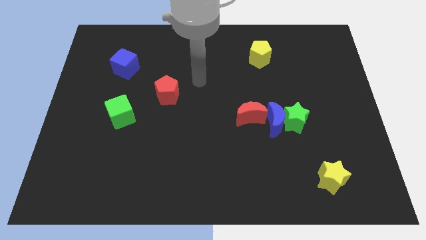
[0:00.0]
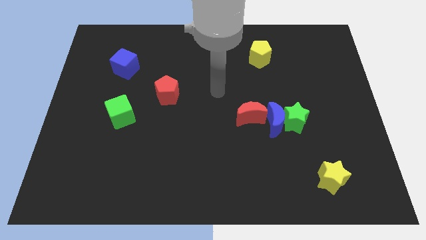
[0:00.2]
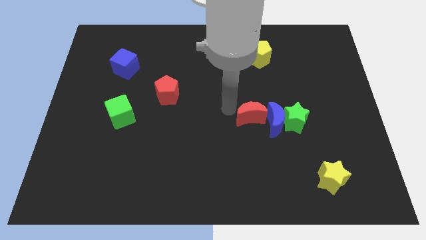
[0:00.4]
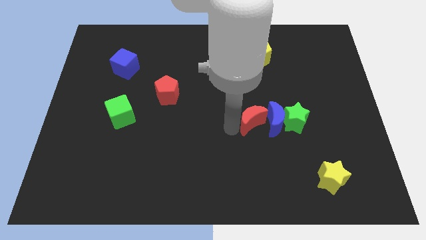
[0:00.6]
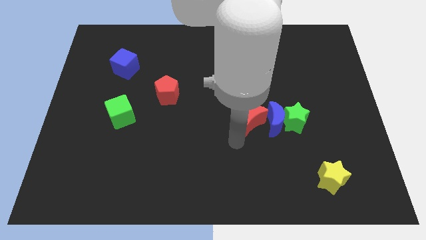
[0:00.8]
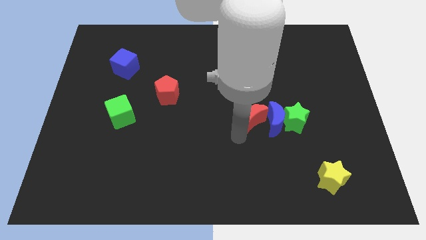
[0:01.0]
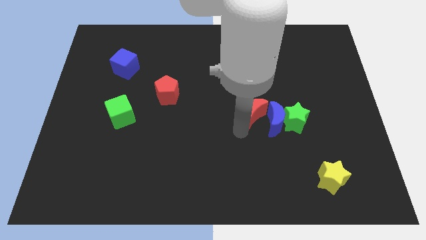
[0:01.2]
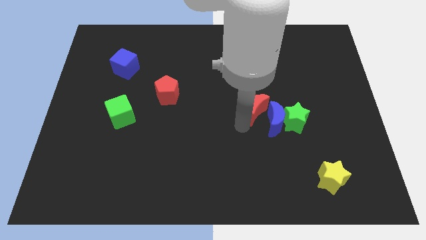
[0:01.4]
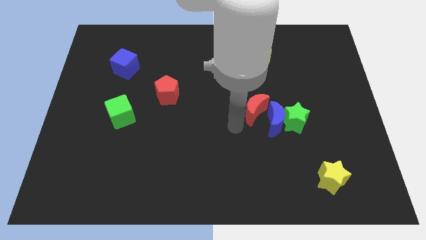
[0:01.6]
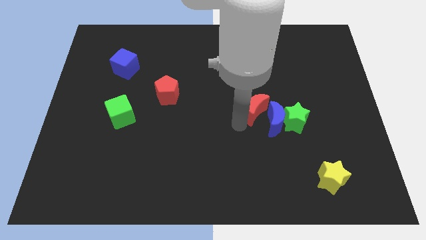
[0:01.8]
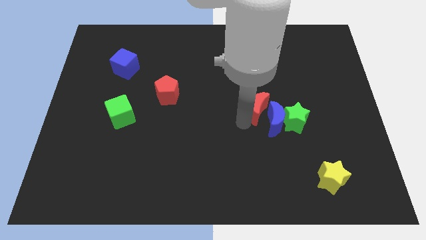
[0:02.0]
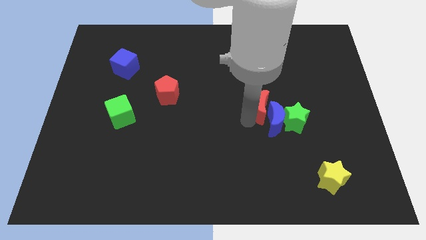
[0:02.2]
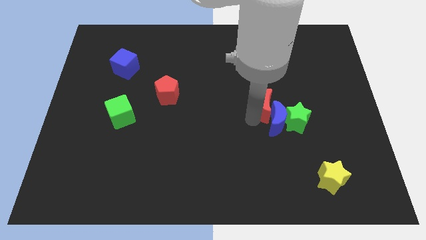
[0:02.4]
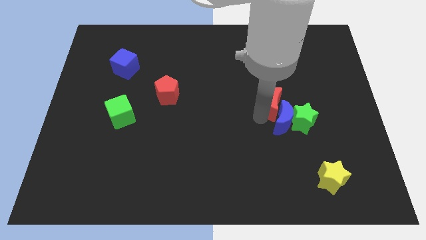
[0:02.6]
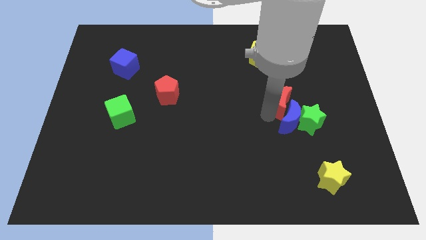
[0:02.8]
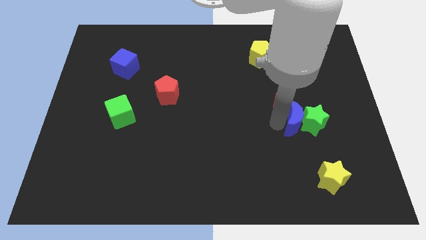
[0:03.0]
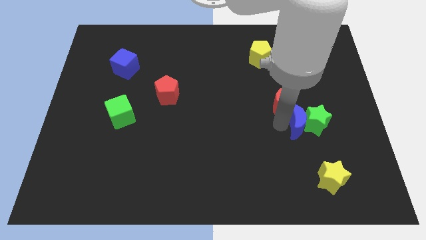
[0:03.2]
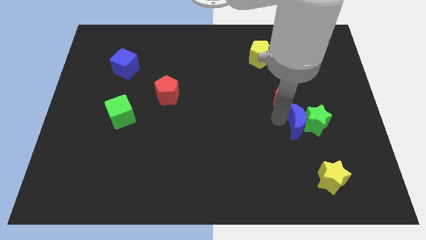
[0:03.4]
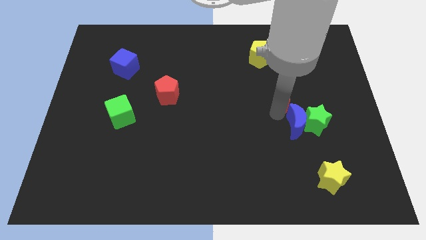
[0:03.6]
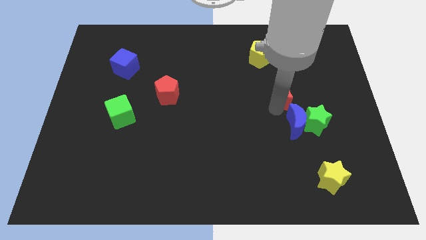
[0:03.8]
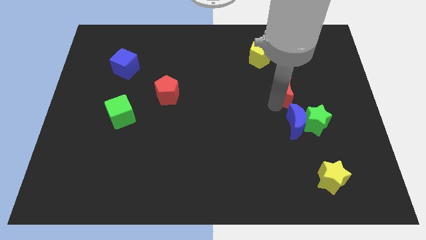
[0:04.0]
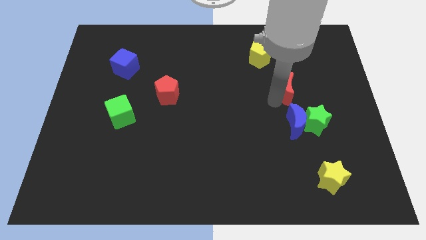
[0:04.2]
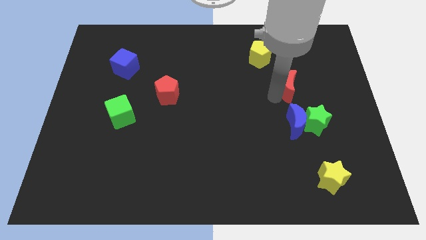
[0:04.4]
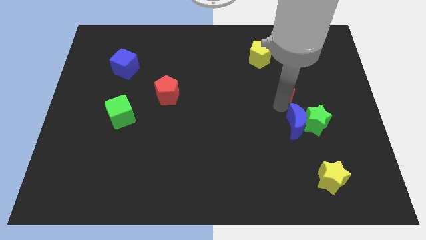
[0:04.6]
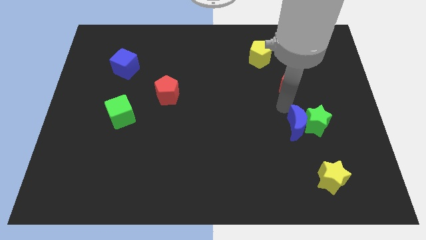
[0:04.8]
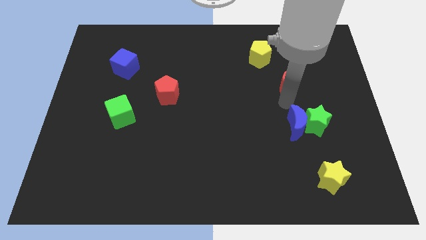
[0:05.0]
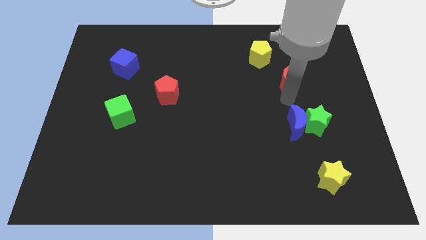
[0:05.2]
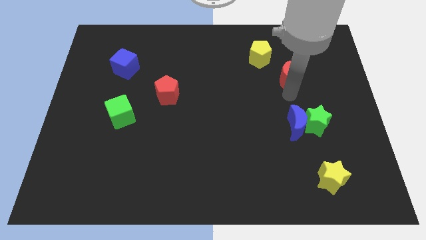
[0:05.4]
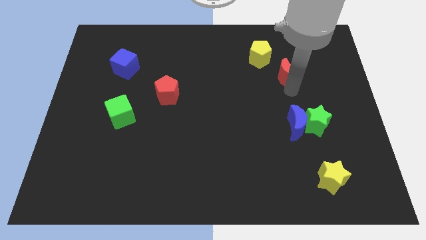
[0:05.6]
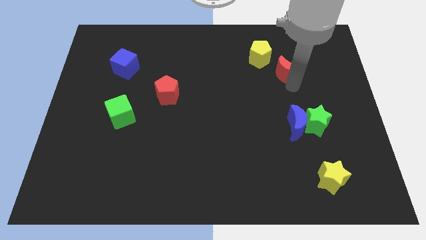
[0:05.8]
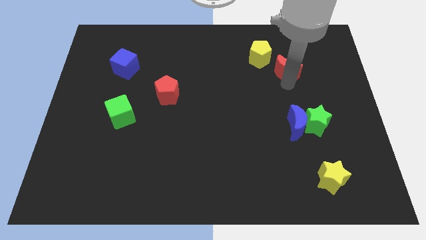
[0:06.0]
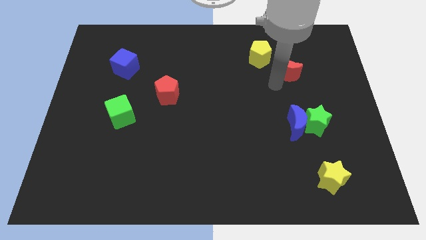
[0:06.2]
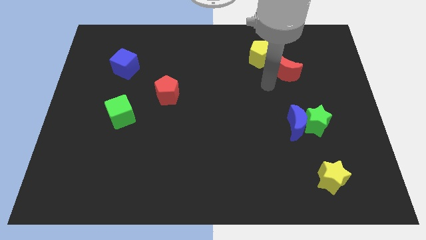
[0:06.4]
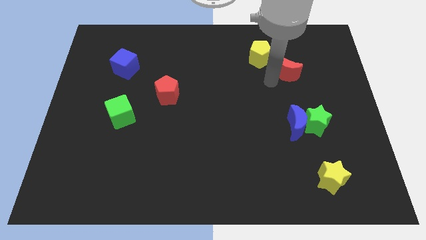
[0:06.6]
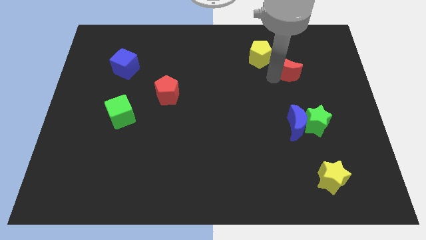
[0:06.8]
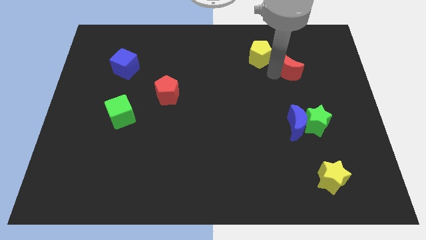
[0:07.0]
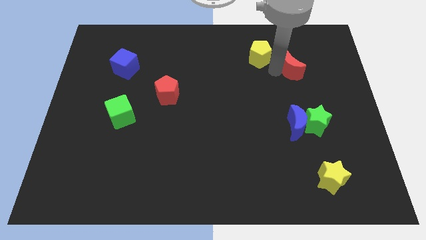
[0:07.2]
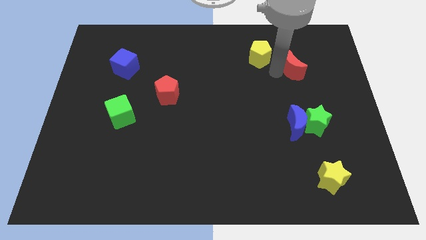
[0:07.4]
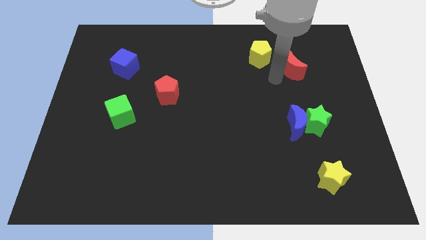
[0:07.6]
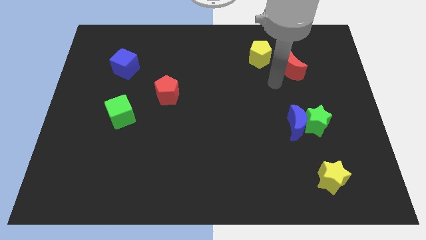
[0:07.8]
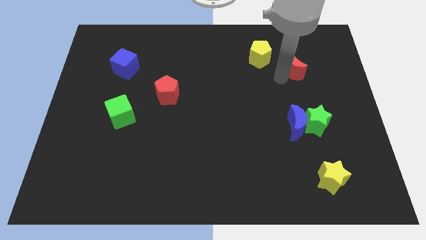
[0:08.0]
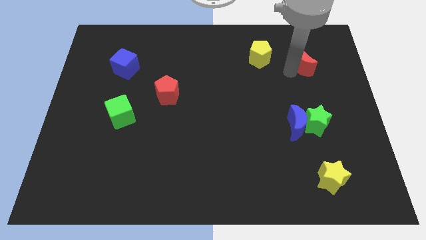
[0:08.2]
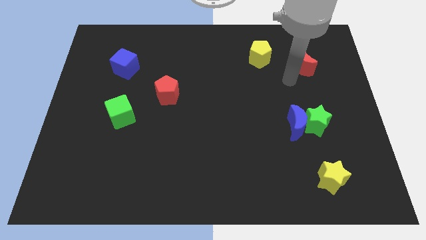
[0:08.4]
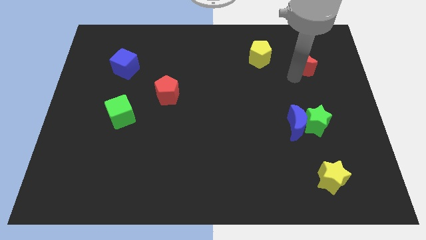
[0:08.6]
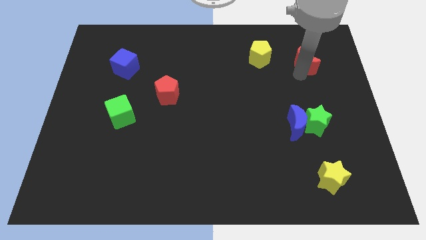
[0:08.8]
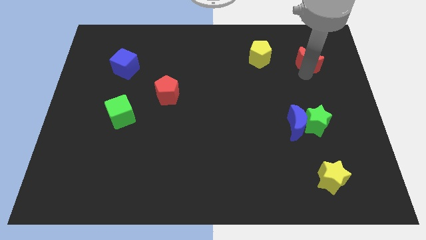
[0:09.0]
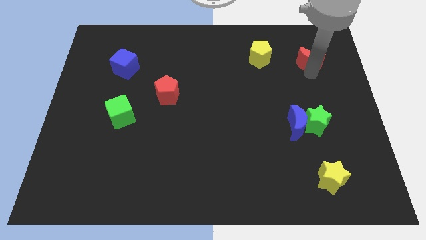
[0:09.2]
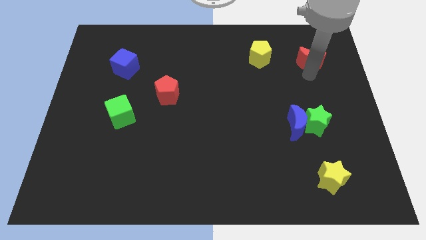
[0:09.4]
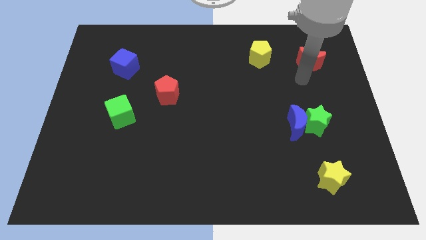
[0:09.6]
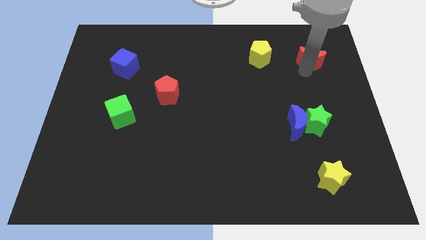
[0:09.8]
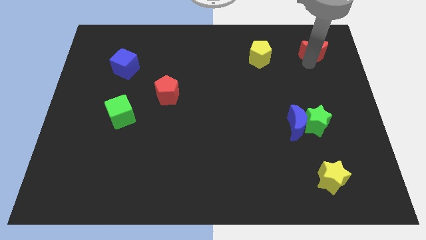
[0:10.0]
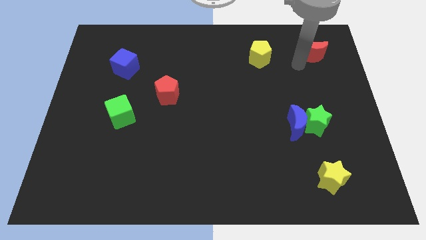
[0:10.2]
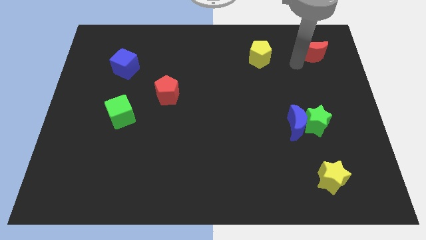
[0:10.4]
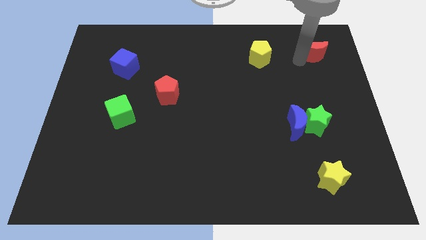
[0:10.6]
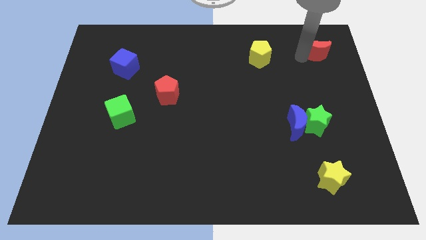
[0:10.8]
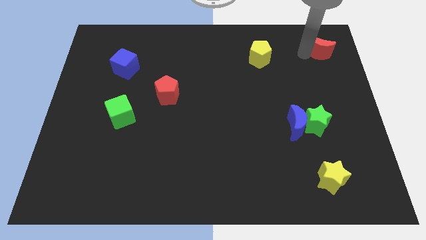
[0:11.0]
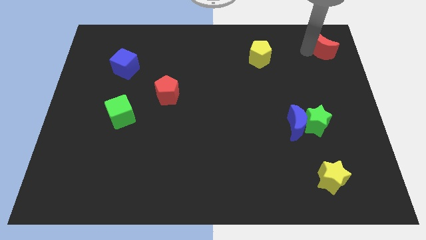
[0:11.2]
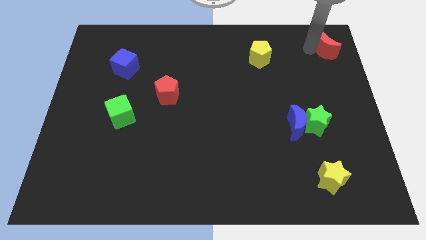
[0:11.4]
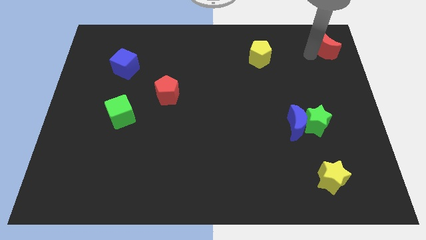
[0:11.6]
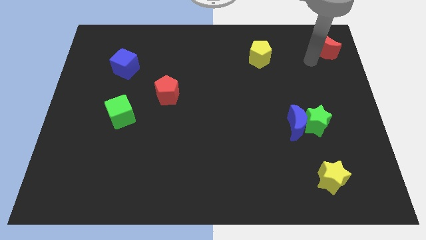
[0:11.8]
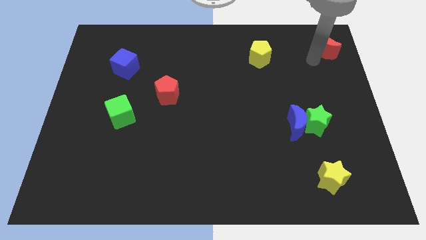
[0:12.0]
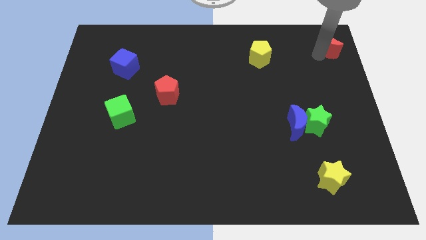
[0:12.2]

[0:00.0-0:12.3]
slide the red moon to the top right
